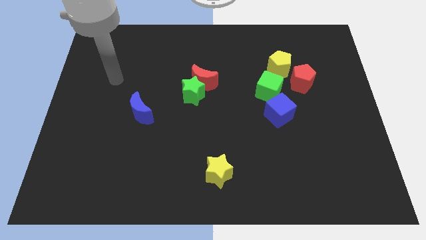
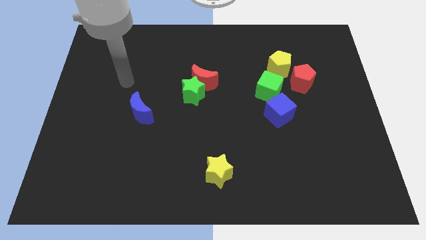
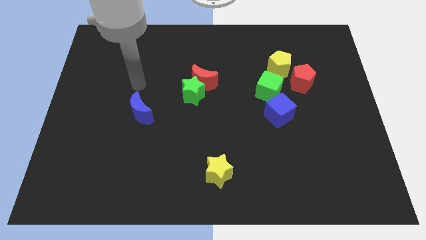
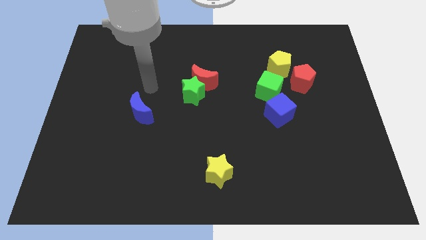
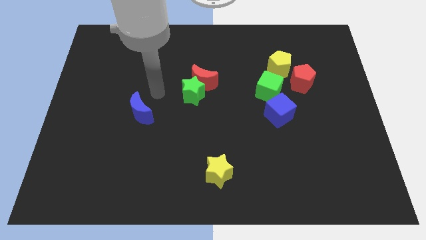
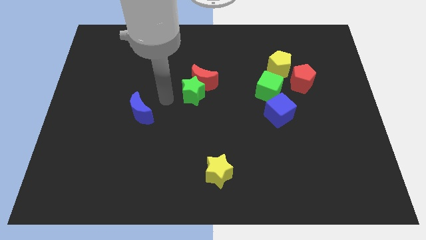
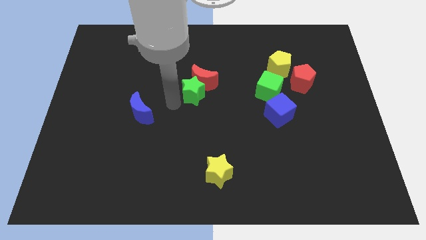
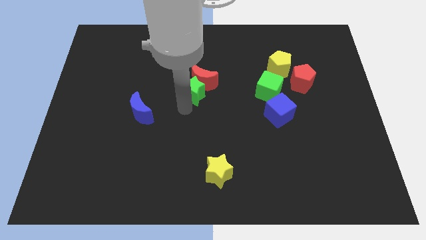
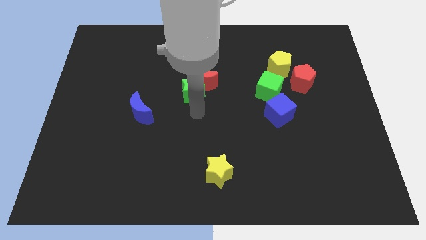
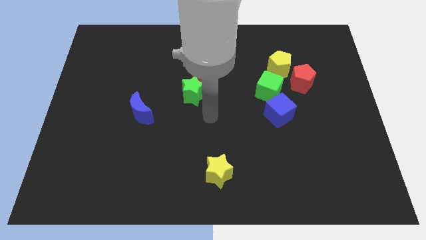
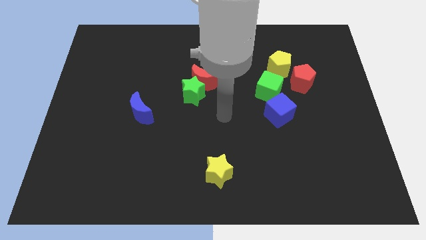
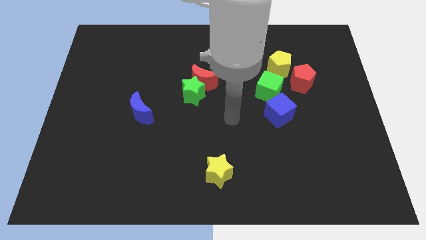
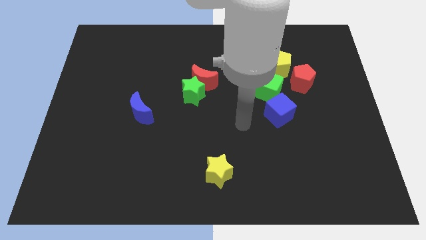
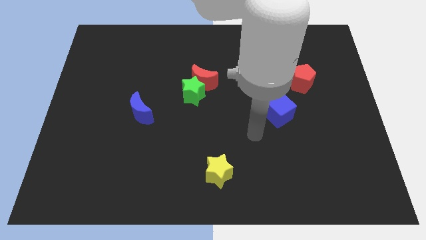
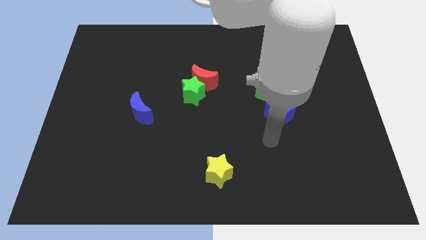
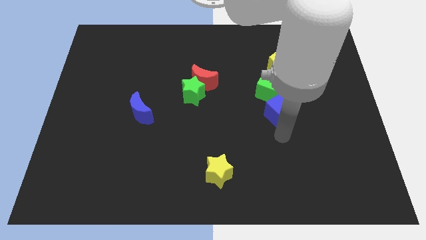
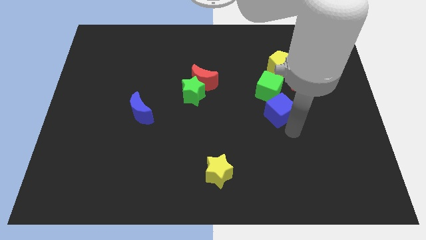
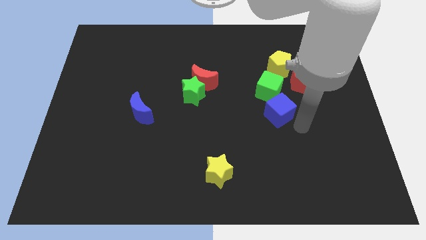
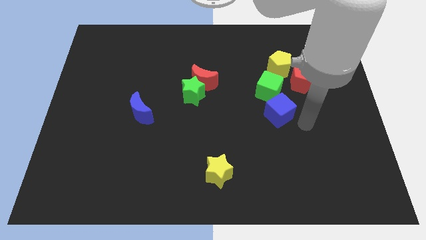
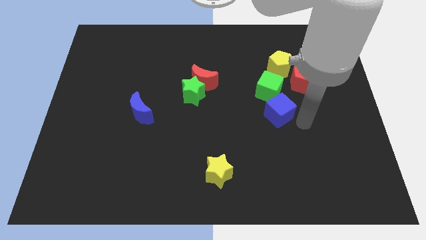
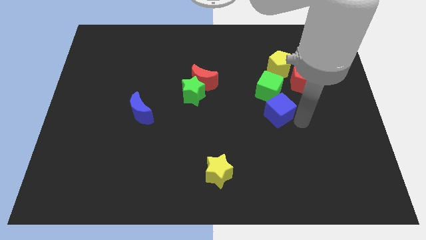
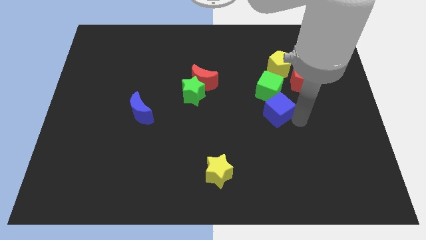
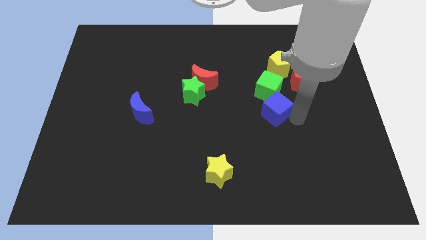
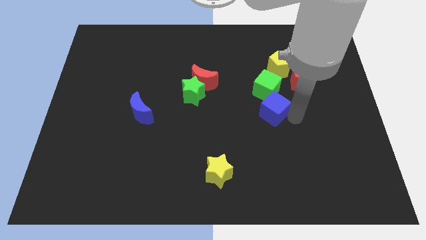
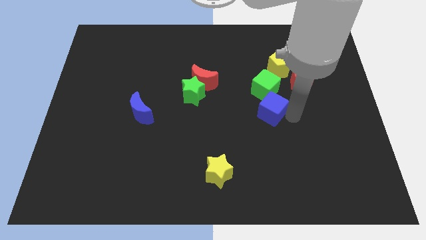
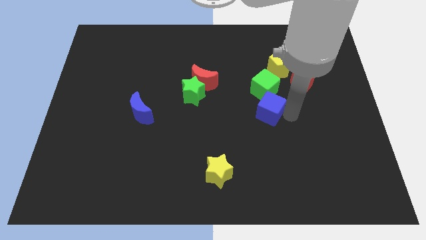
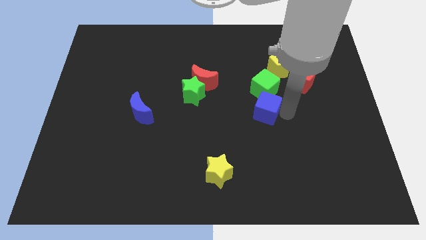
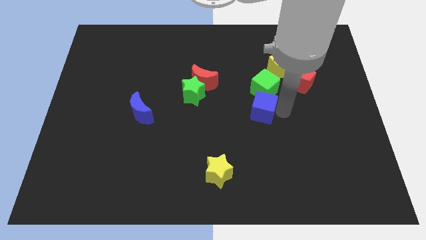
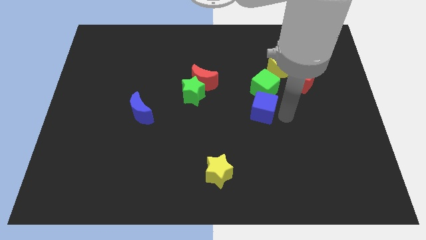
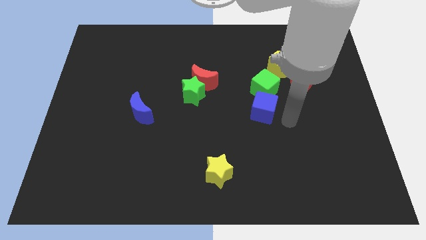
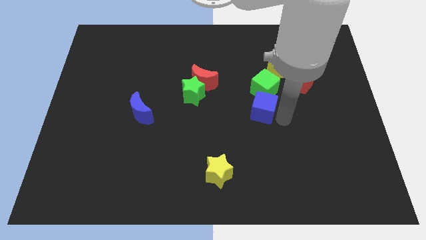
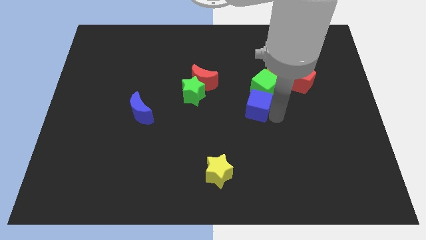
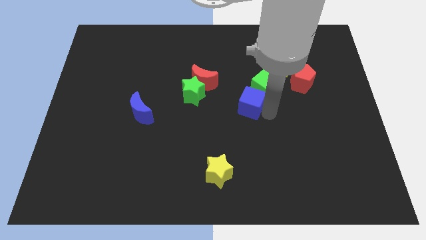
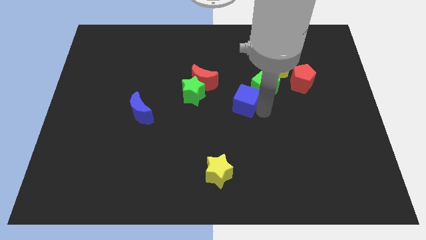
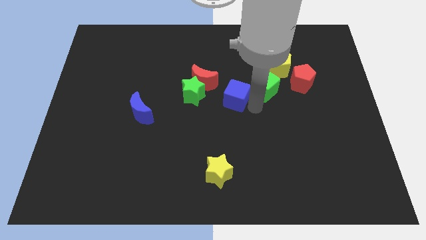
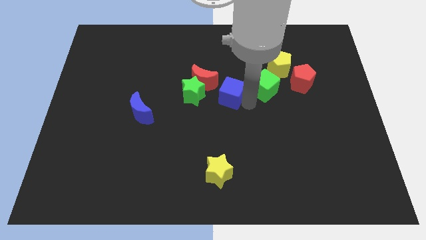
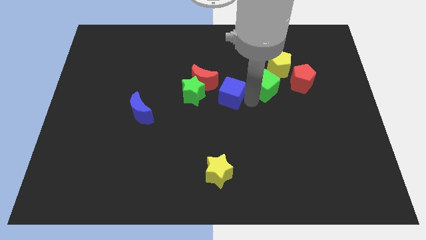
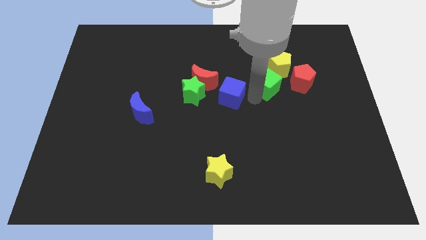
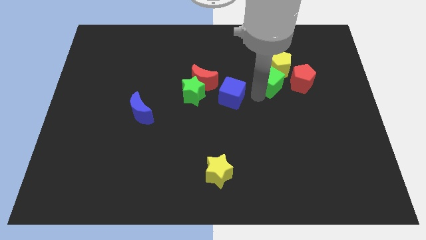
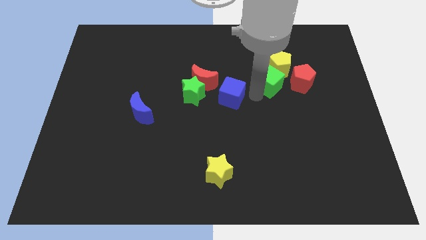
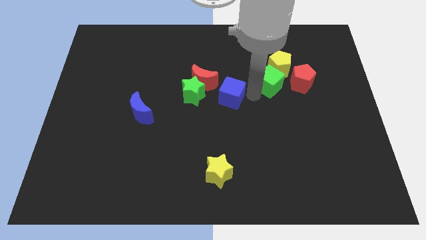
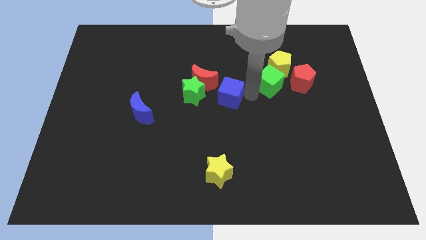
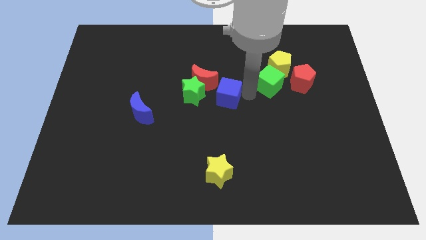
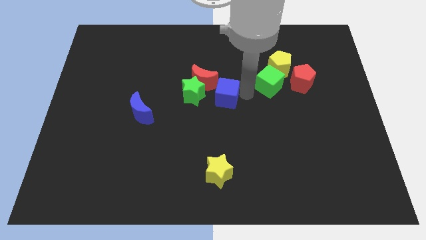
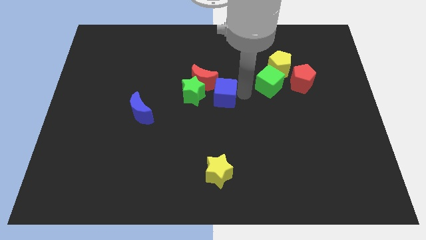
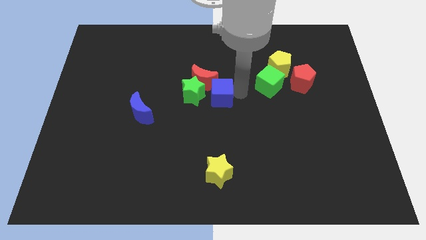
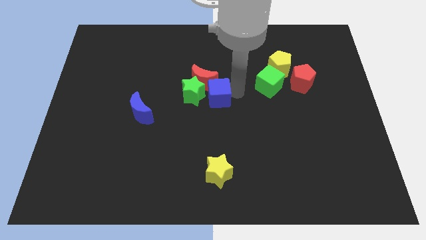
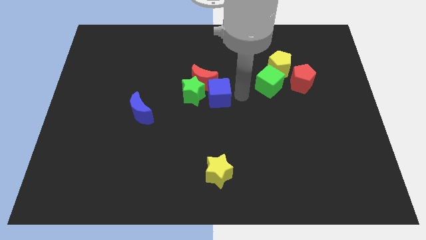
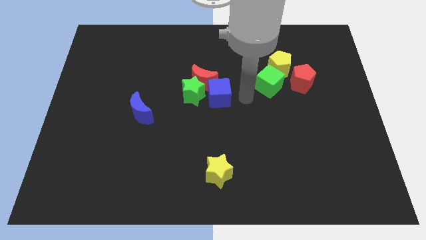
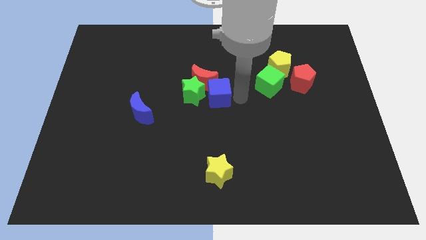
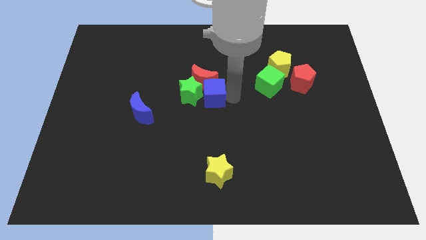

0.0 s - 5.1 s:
slide the blue cube next to the green star

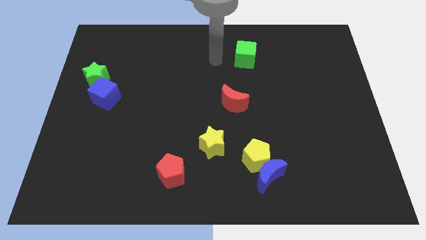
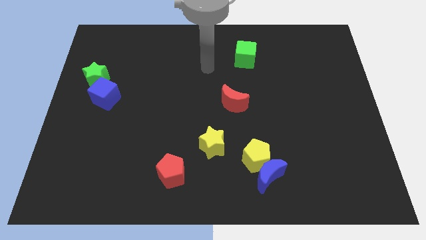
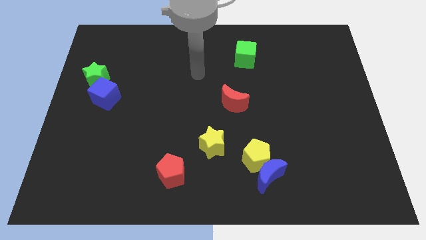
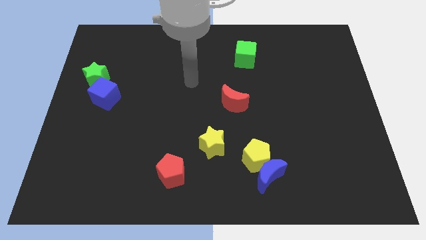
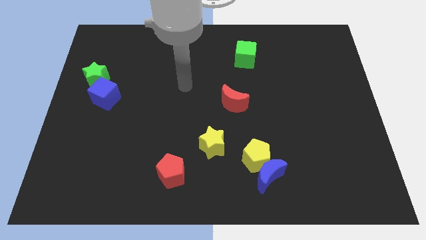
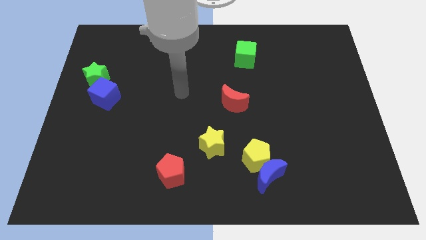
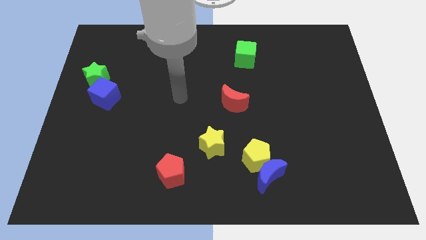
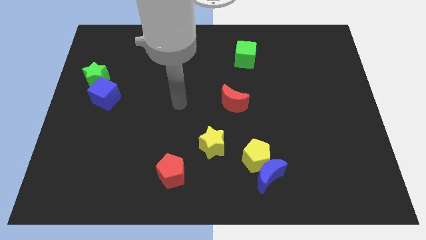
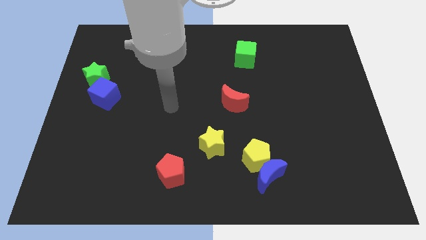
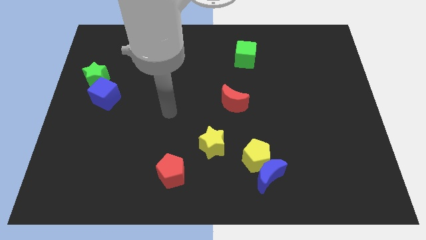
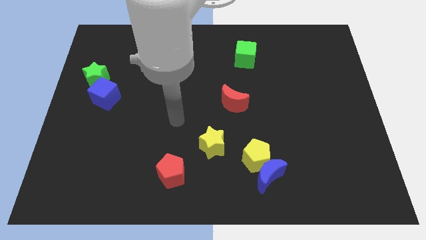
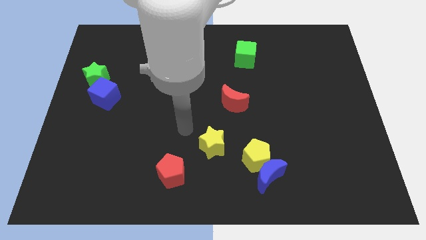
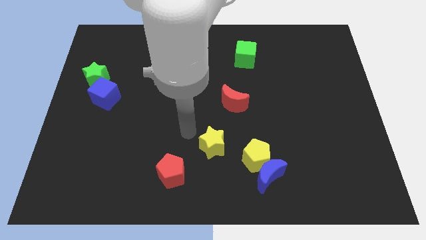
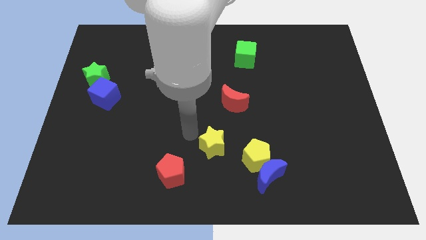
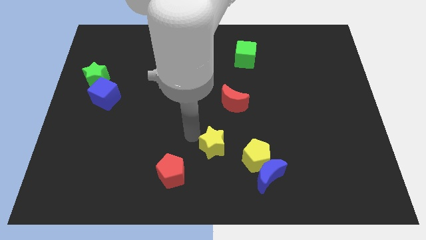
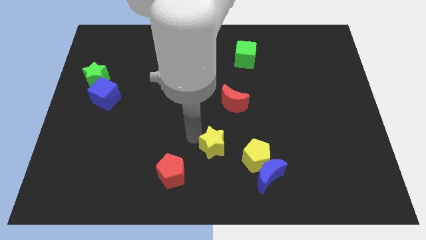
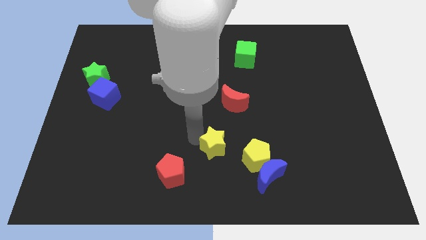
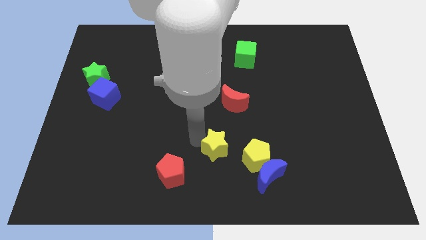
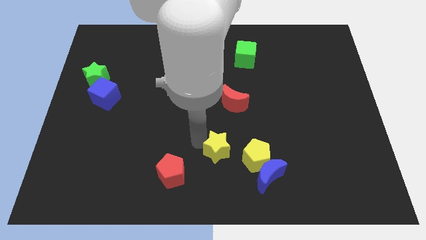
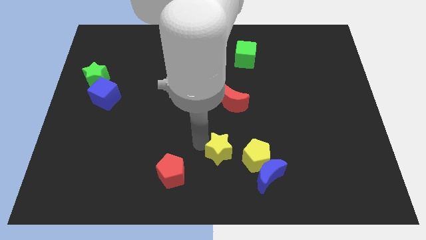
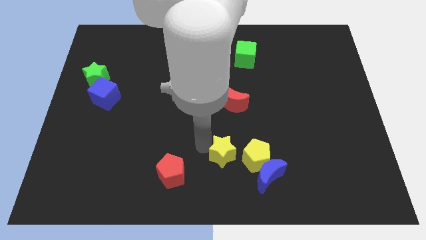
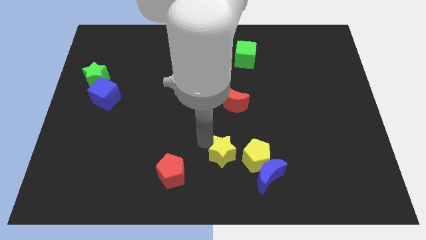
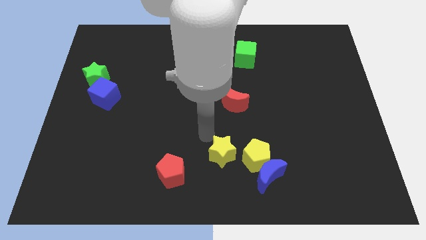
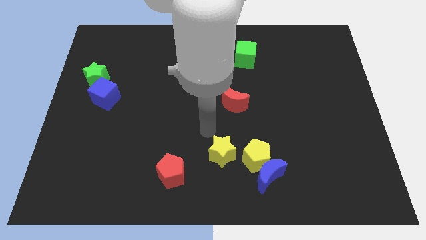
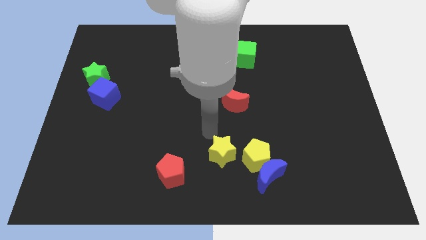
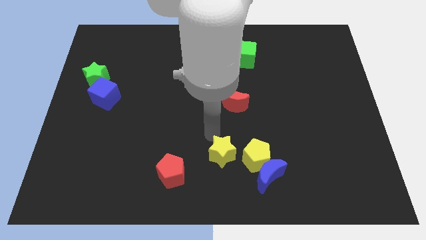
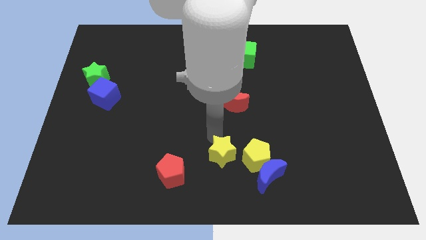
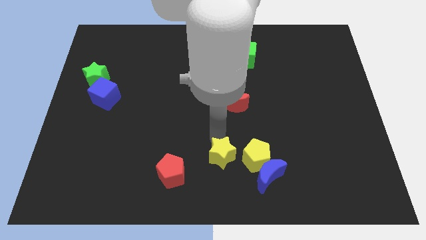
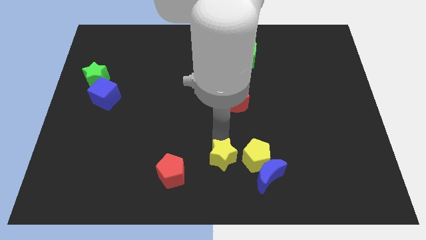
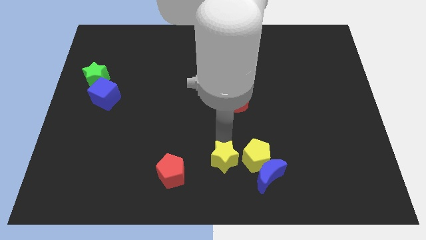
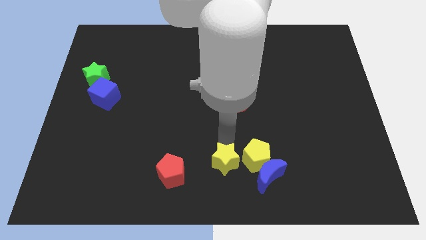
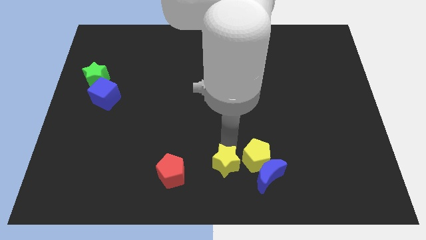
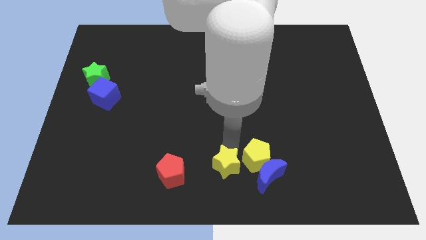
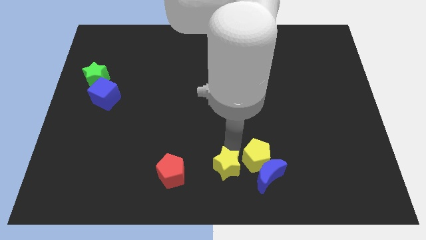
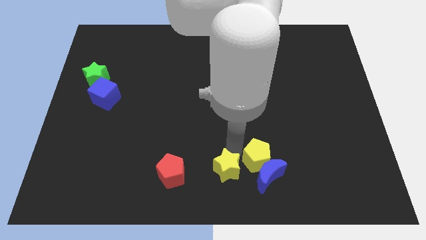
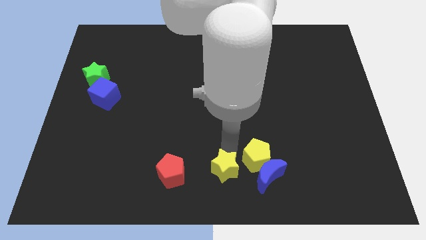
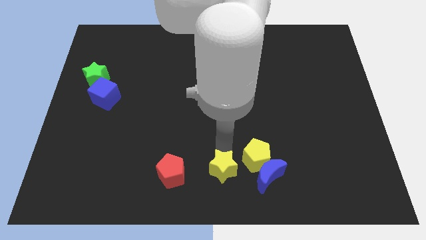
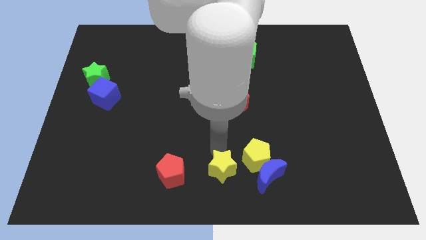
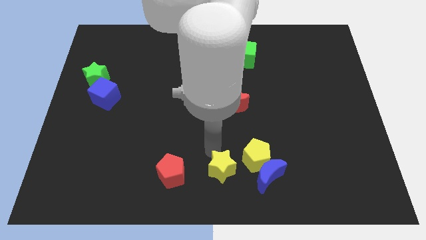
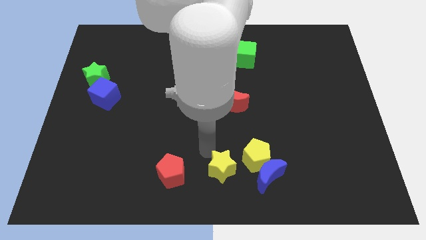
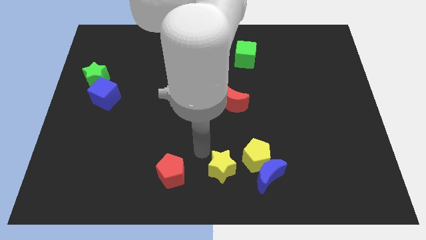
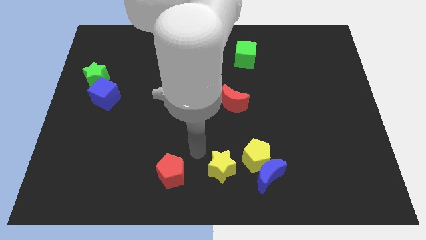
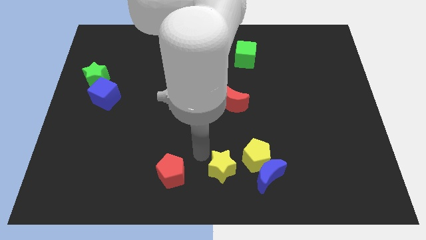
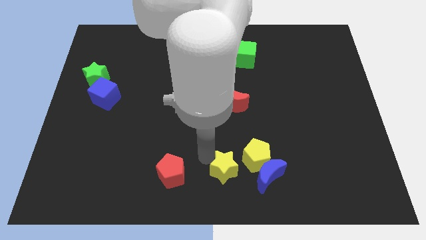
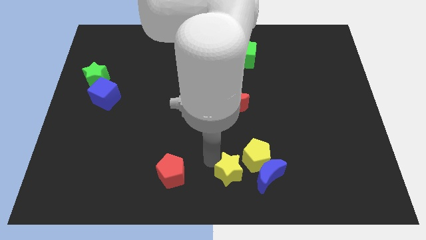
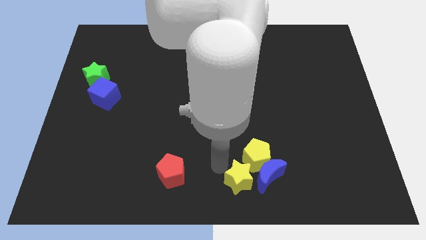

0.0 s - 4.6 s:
push the yellow star towards the blue moon
